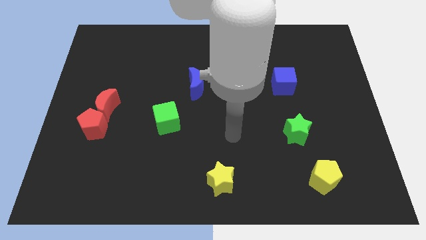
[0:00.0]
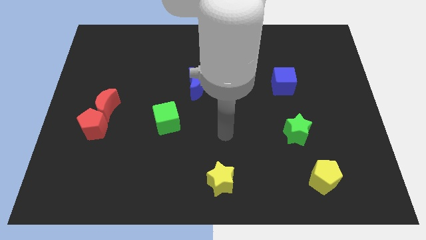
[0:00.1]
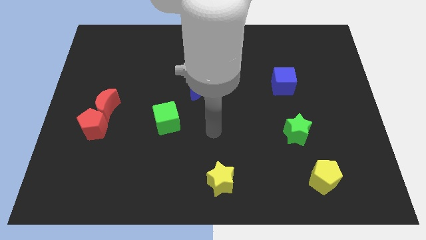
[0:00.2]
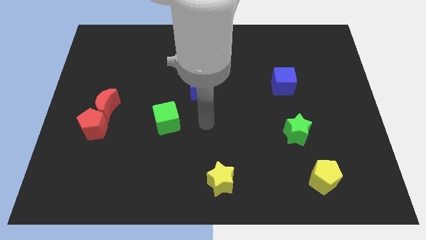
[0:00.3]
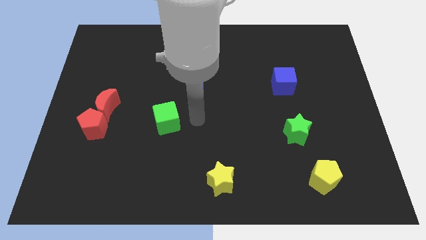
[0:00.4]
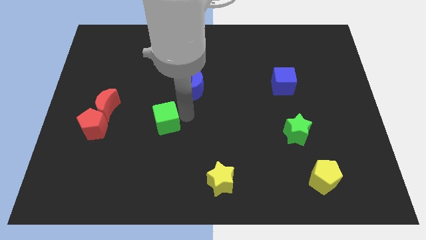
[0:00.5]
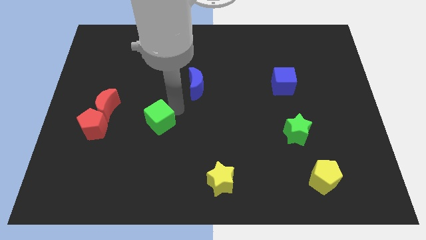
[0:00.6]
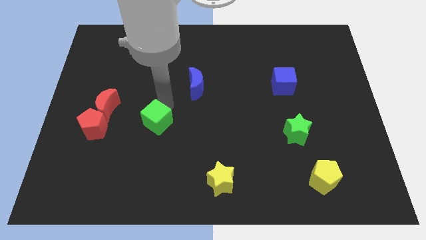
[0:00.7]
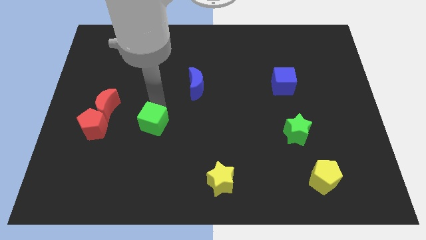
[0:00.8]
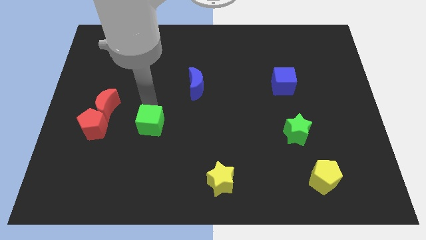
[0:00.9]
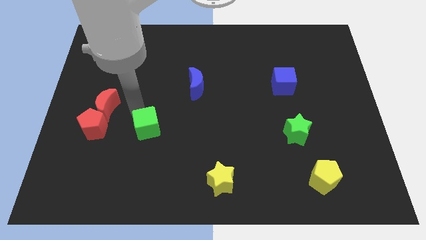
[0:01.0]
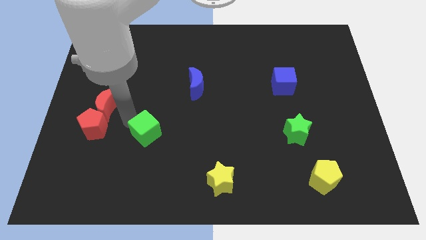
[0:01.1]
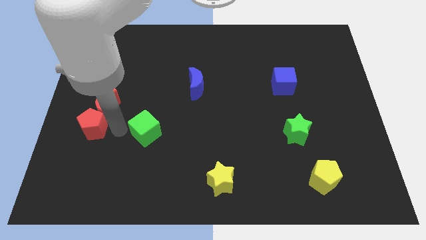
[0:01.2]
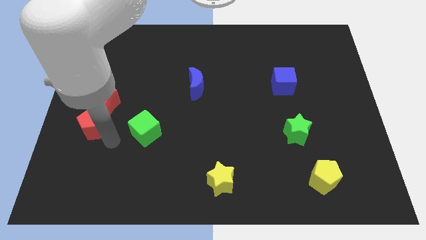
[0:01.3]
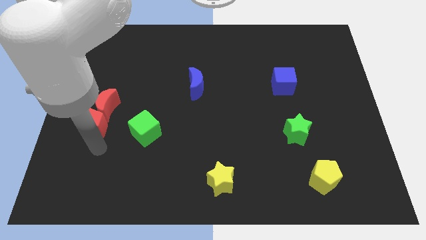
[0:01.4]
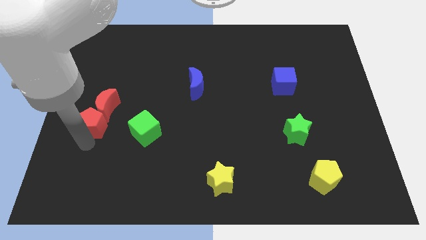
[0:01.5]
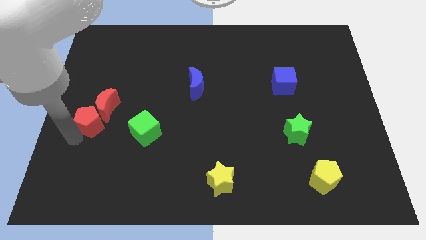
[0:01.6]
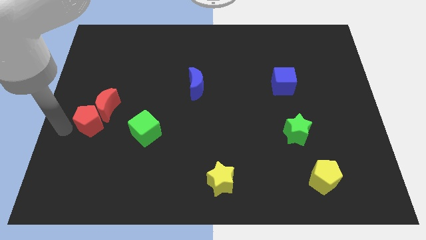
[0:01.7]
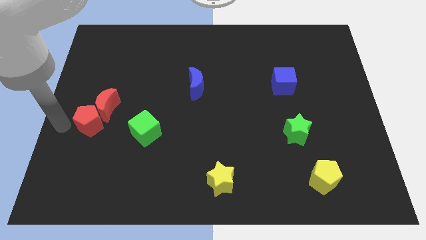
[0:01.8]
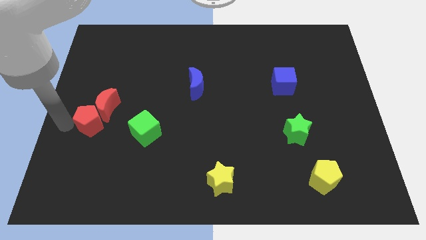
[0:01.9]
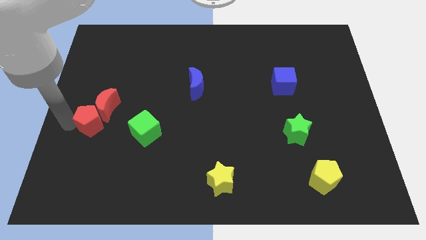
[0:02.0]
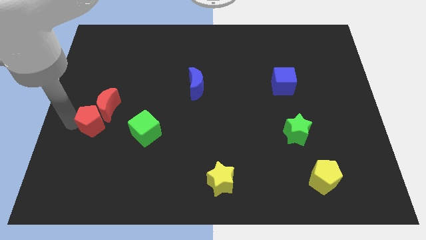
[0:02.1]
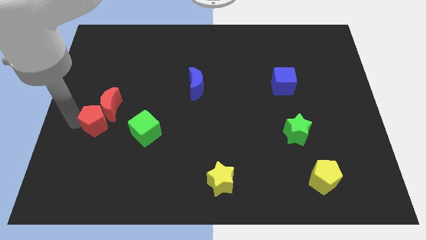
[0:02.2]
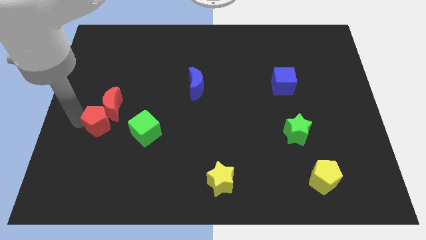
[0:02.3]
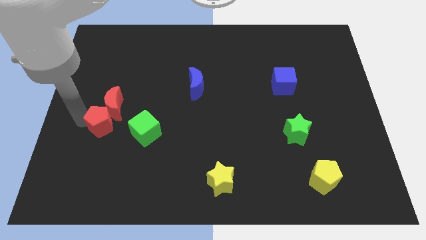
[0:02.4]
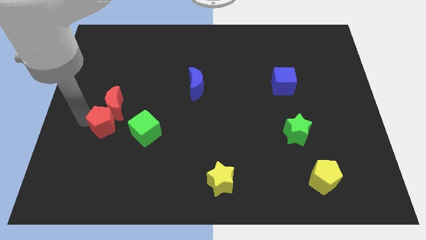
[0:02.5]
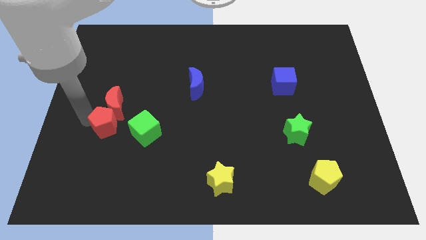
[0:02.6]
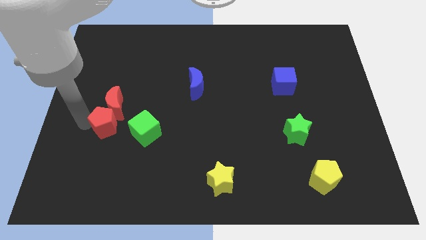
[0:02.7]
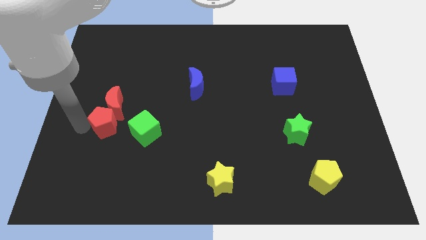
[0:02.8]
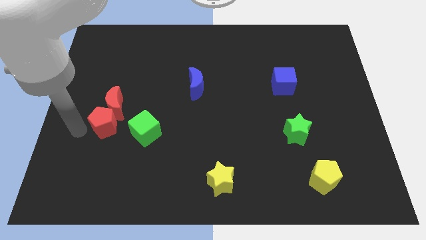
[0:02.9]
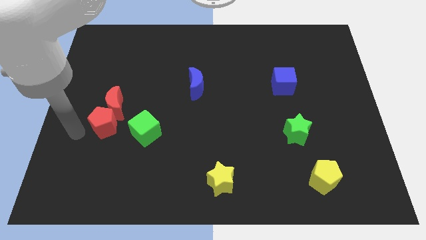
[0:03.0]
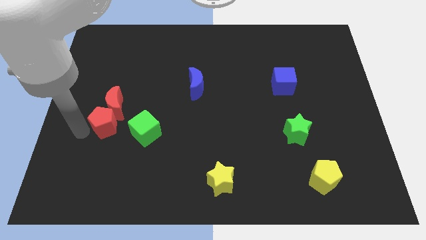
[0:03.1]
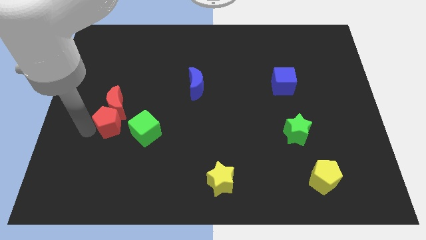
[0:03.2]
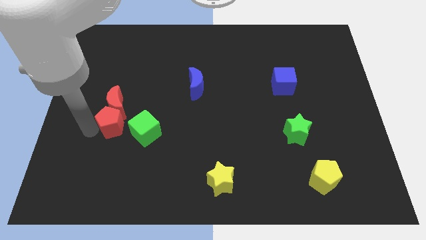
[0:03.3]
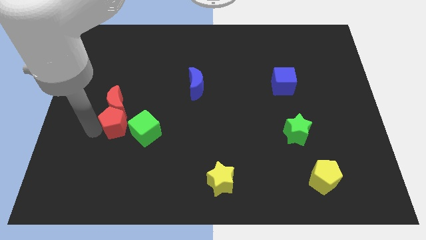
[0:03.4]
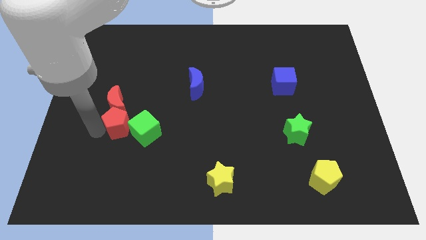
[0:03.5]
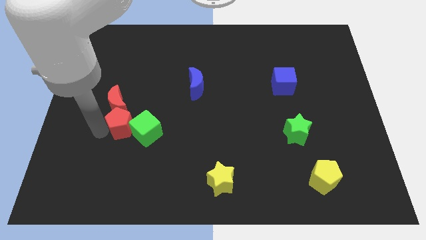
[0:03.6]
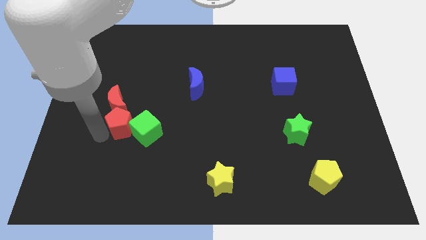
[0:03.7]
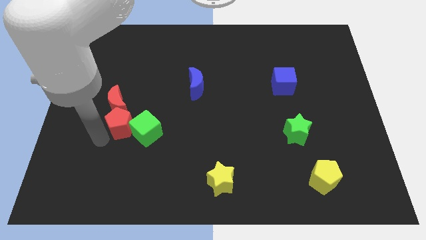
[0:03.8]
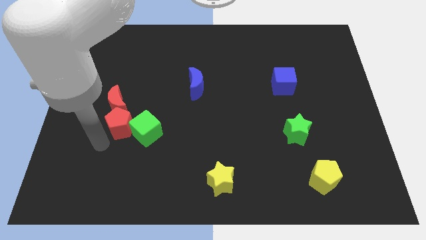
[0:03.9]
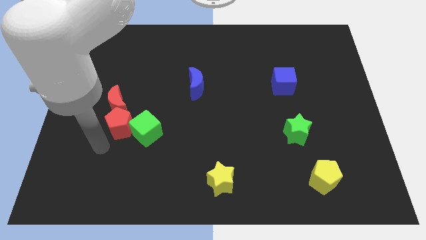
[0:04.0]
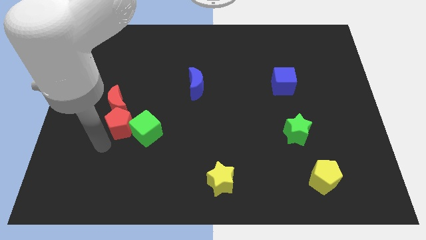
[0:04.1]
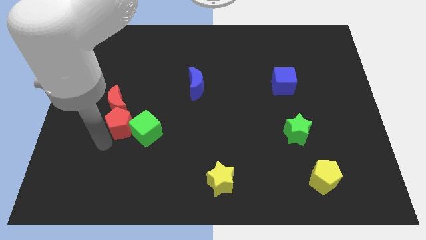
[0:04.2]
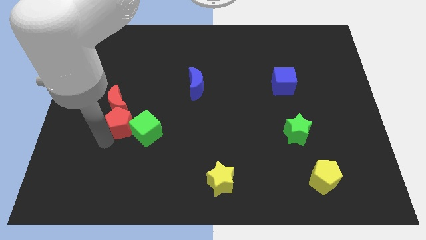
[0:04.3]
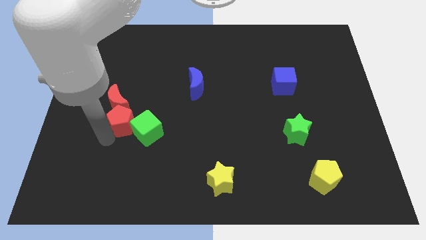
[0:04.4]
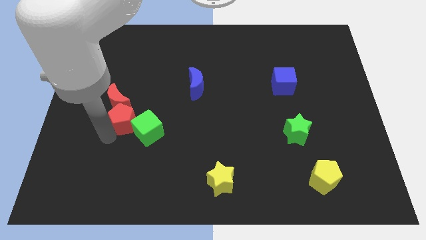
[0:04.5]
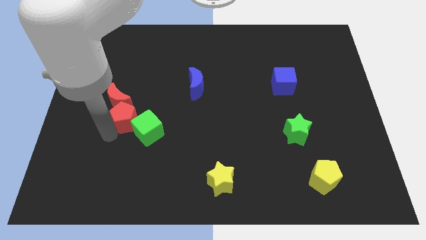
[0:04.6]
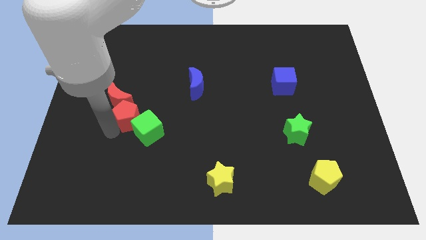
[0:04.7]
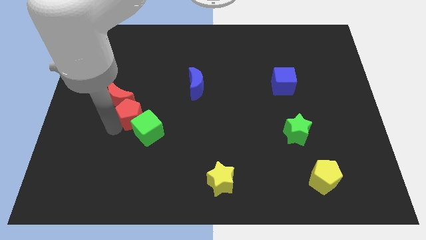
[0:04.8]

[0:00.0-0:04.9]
slightly move the red pentagon up and then to the right

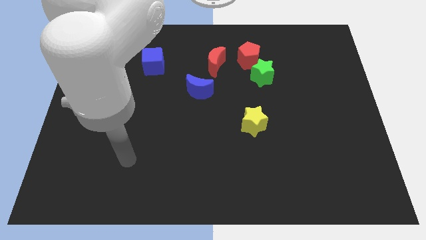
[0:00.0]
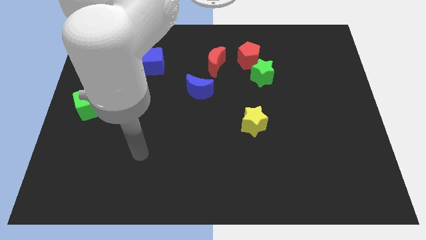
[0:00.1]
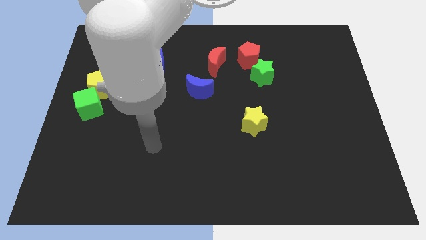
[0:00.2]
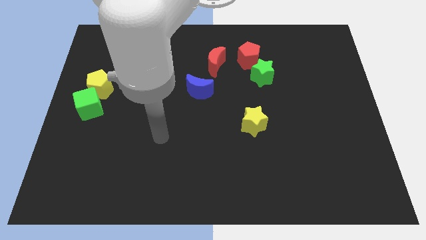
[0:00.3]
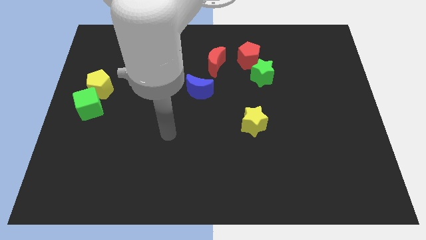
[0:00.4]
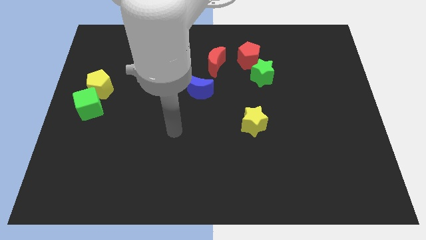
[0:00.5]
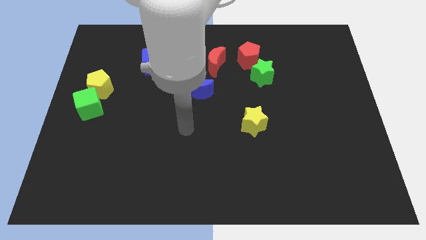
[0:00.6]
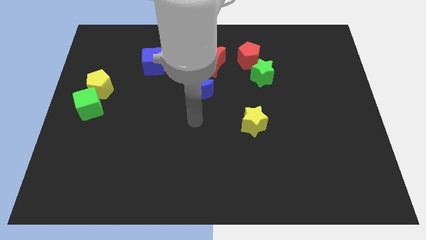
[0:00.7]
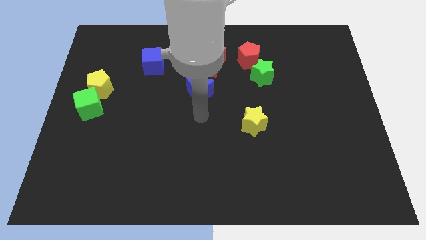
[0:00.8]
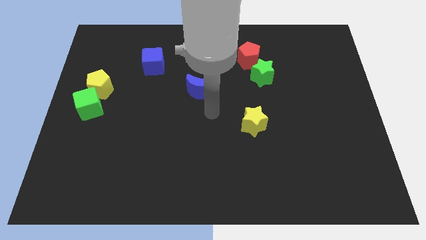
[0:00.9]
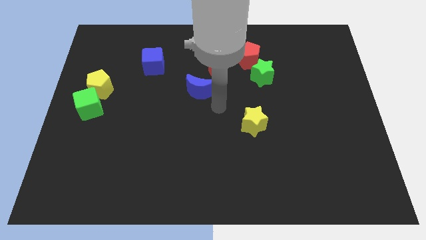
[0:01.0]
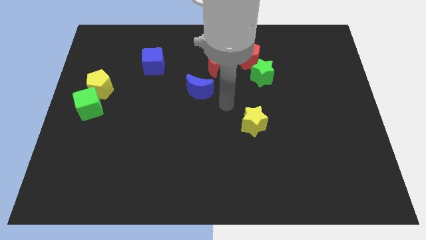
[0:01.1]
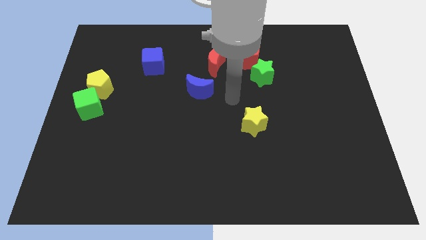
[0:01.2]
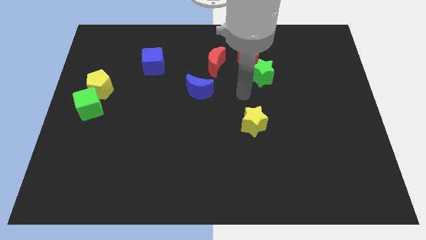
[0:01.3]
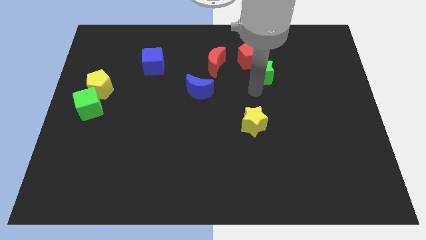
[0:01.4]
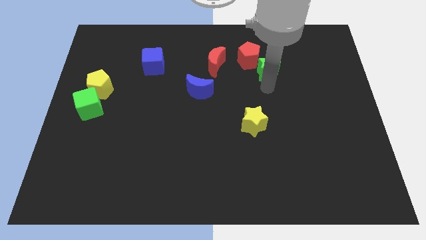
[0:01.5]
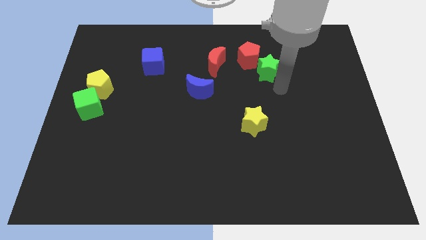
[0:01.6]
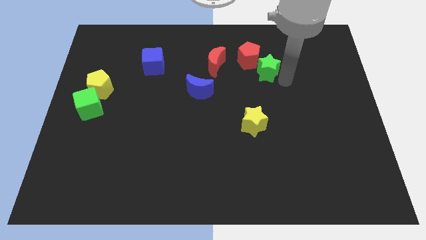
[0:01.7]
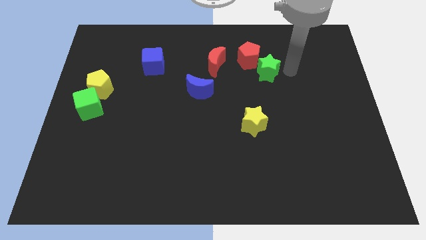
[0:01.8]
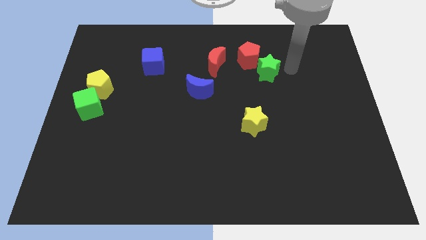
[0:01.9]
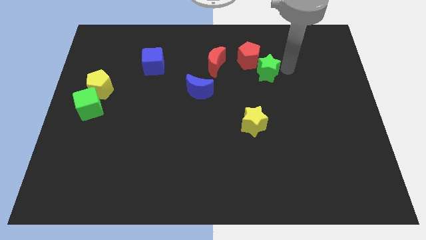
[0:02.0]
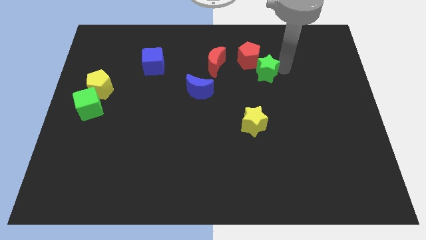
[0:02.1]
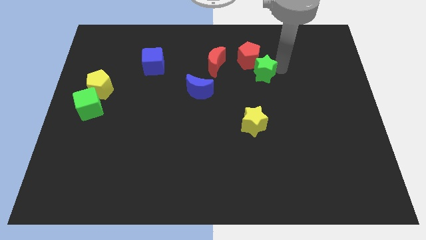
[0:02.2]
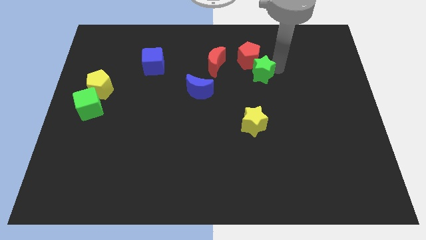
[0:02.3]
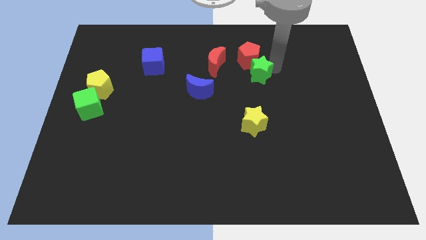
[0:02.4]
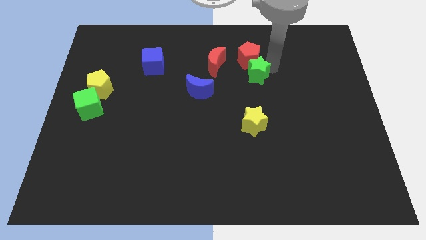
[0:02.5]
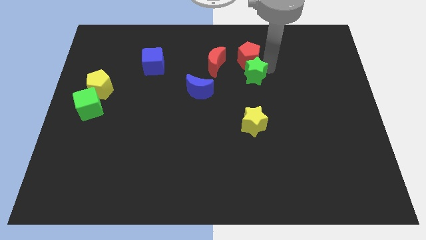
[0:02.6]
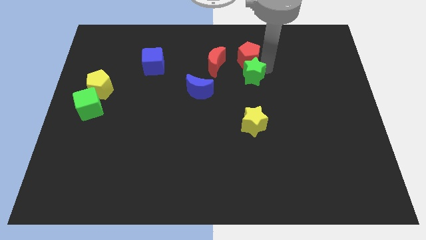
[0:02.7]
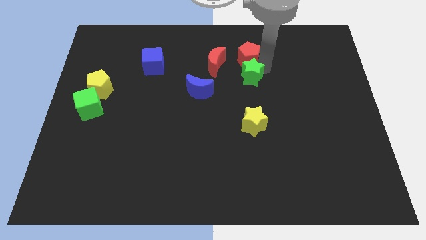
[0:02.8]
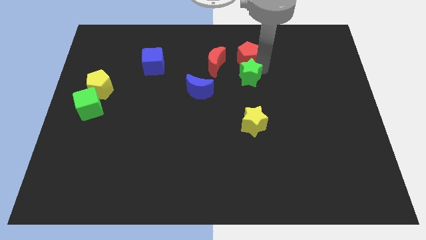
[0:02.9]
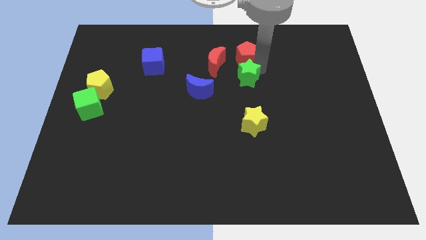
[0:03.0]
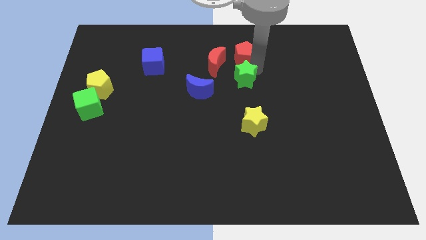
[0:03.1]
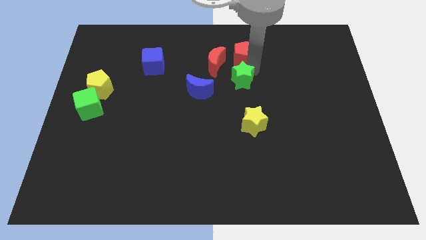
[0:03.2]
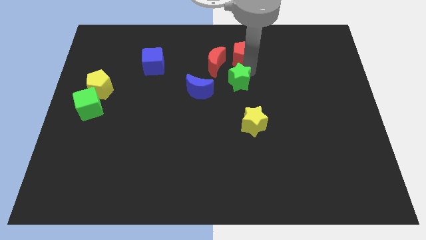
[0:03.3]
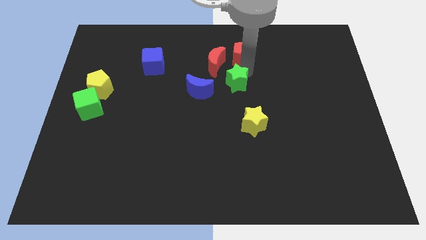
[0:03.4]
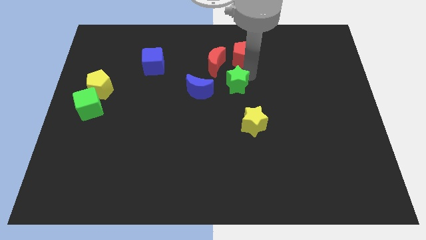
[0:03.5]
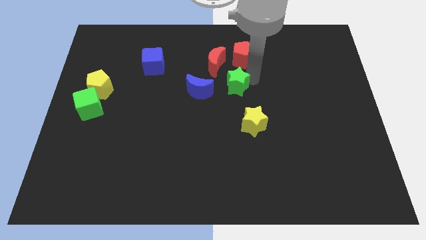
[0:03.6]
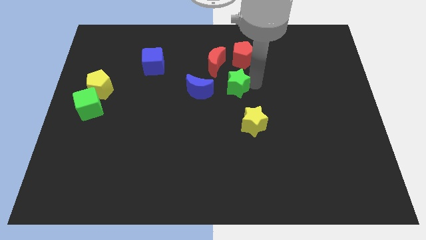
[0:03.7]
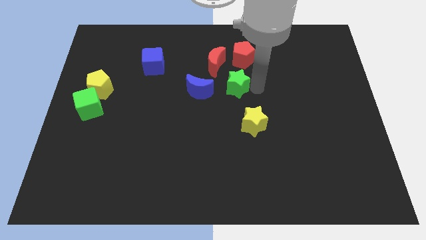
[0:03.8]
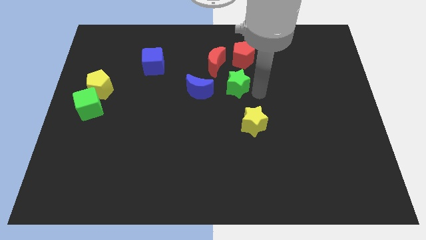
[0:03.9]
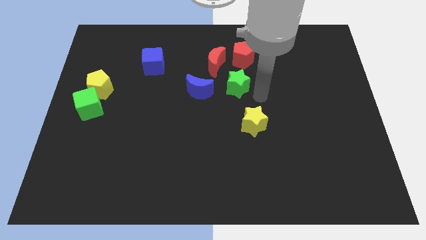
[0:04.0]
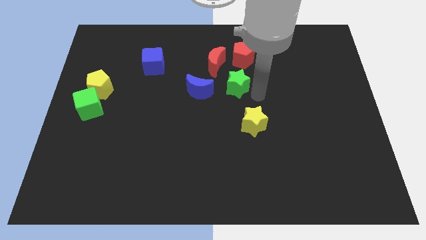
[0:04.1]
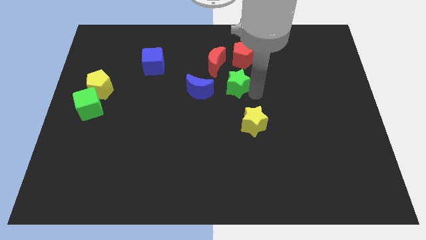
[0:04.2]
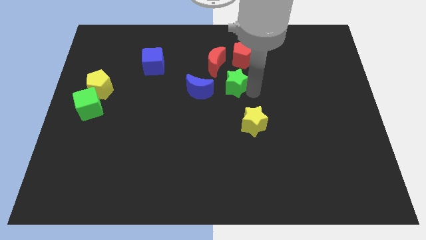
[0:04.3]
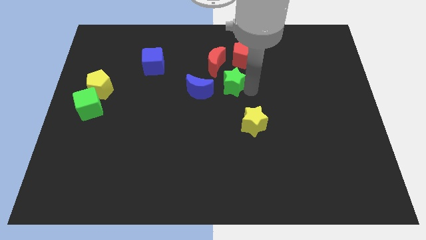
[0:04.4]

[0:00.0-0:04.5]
slide the green star to the left a little
